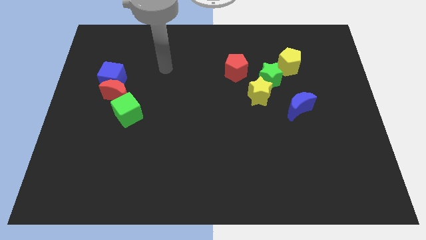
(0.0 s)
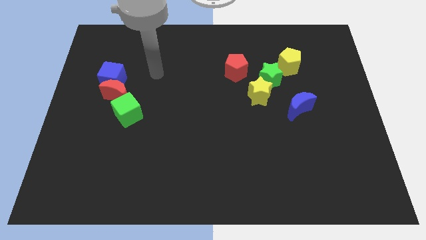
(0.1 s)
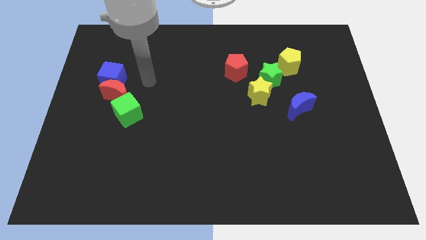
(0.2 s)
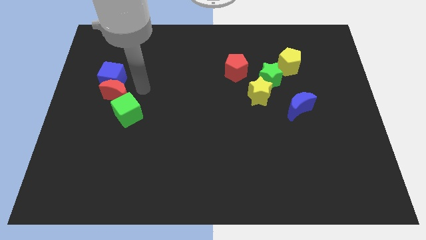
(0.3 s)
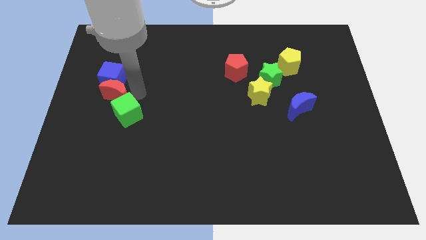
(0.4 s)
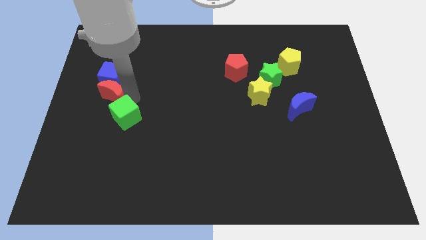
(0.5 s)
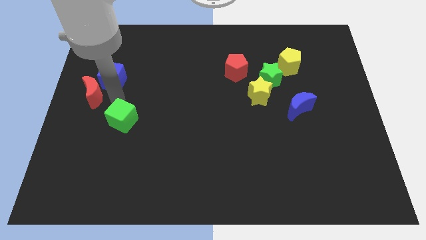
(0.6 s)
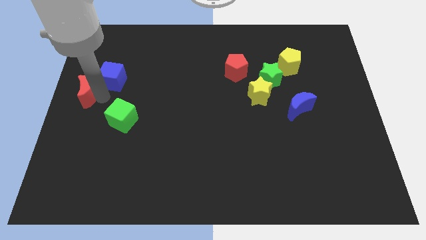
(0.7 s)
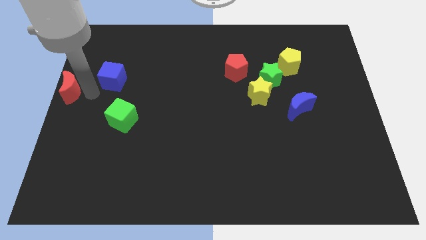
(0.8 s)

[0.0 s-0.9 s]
separate the blue cube from the red moon

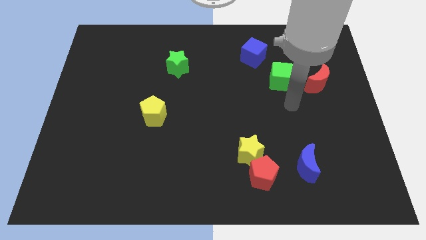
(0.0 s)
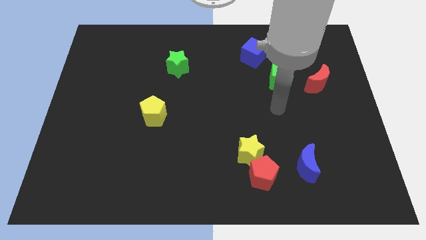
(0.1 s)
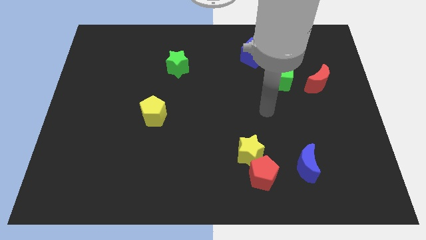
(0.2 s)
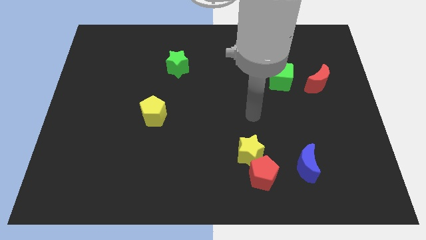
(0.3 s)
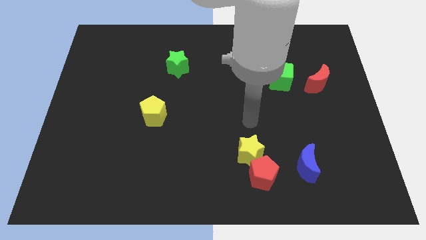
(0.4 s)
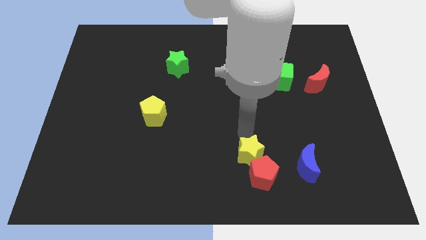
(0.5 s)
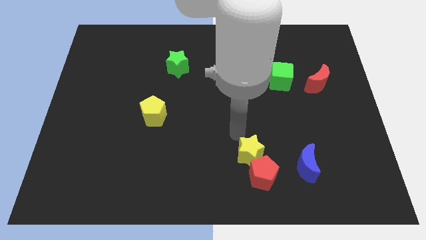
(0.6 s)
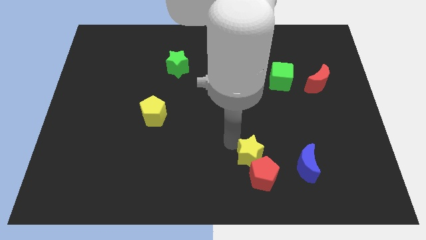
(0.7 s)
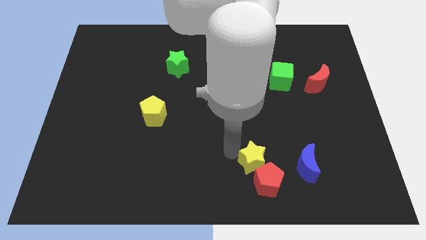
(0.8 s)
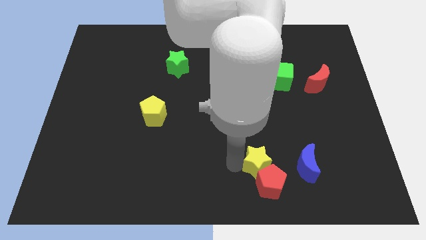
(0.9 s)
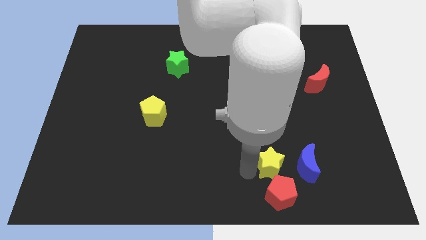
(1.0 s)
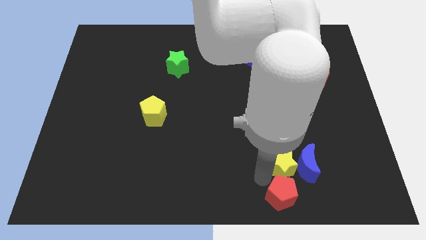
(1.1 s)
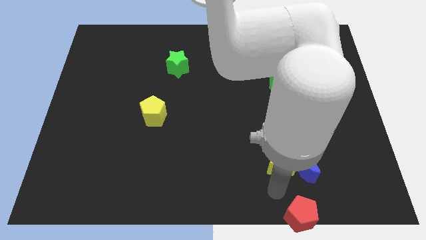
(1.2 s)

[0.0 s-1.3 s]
move the yellow star away from the red pentagon

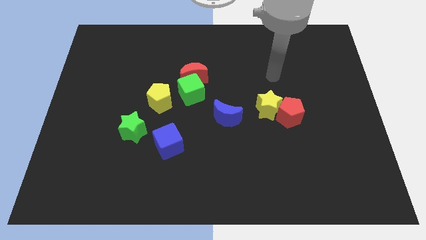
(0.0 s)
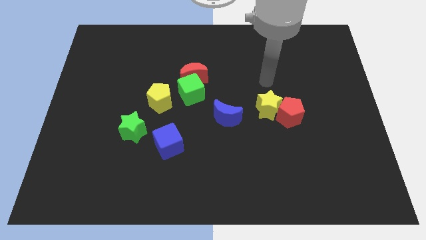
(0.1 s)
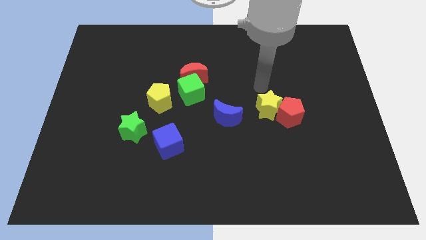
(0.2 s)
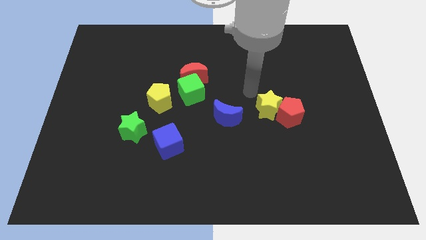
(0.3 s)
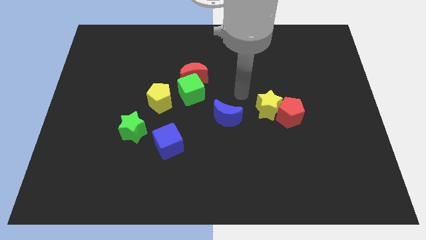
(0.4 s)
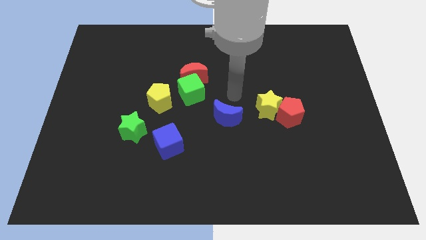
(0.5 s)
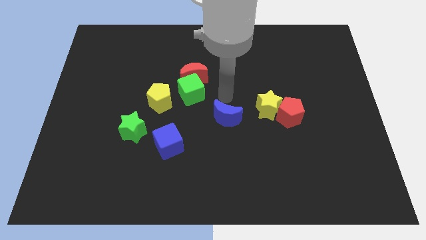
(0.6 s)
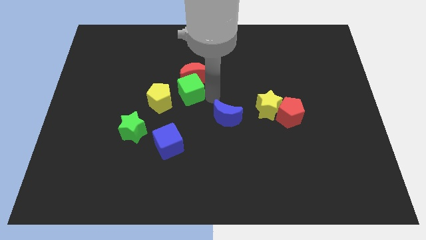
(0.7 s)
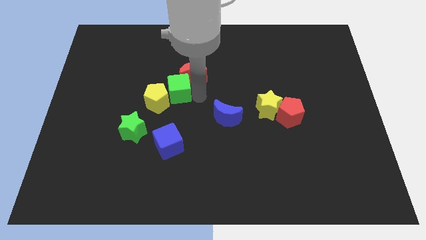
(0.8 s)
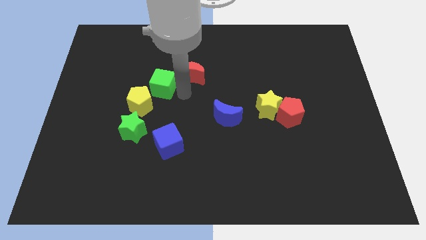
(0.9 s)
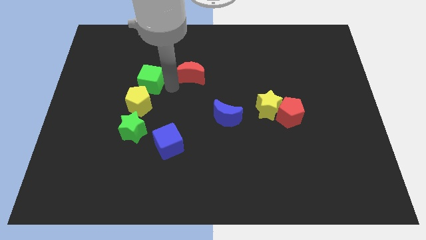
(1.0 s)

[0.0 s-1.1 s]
move the red moon away from the green cube

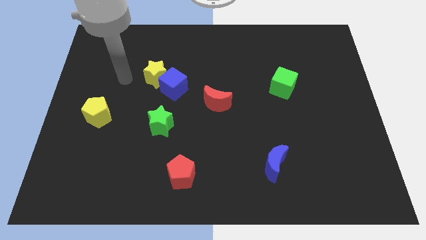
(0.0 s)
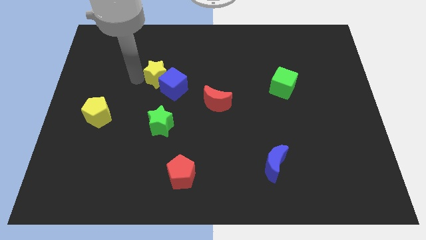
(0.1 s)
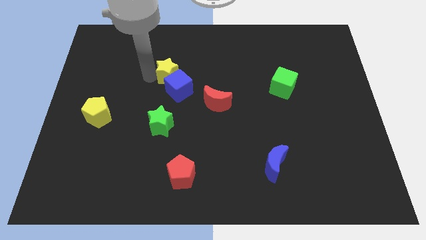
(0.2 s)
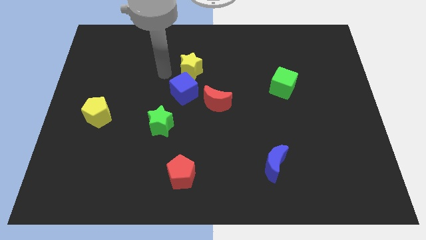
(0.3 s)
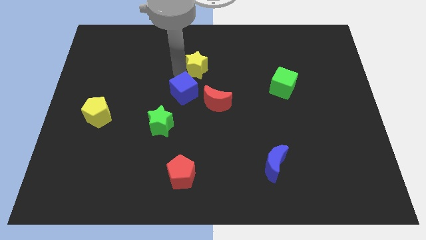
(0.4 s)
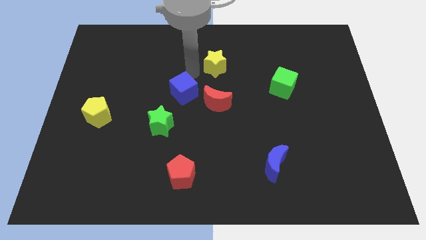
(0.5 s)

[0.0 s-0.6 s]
move the blue cube away from the yellow star

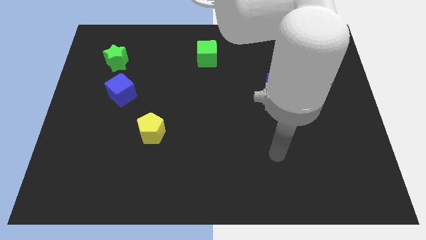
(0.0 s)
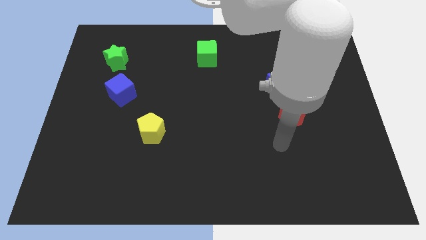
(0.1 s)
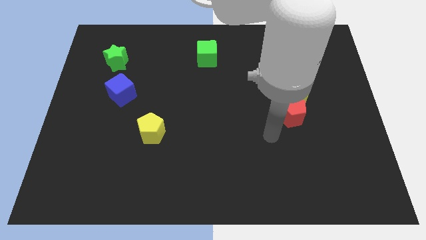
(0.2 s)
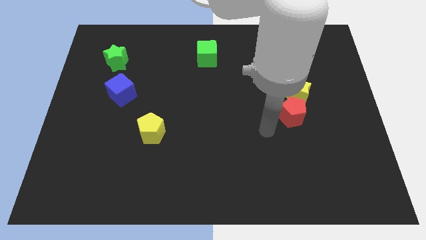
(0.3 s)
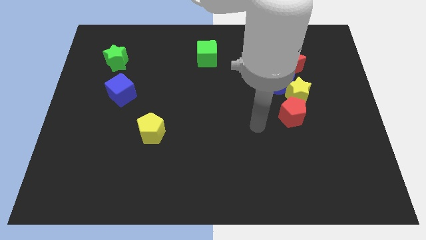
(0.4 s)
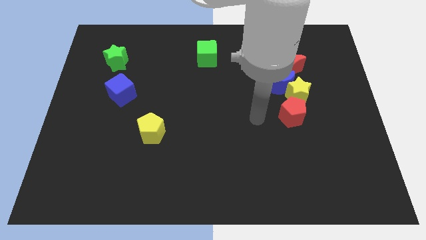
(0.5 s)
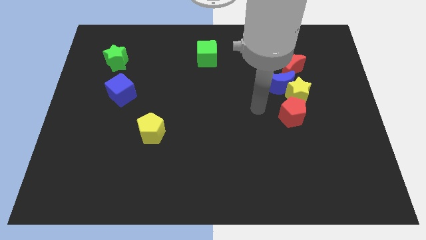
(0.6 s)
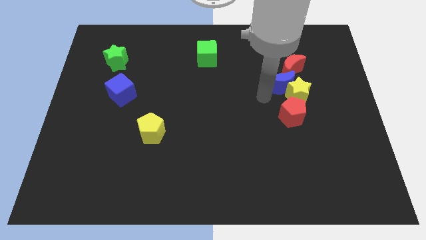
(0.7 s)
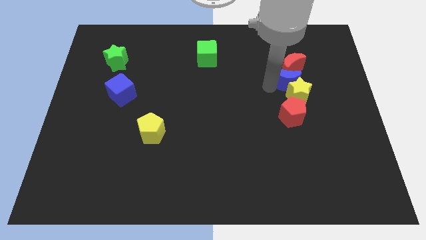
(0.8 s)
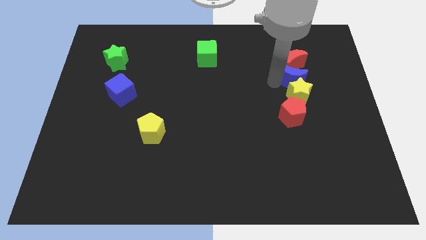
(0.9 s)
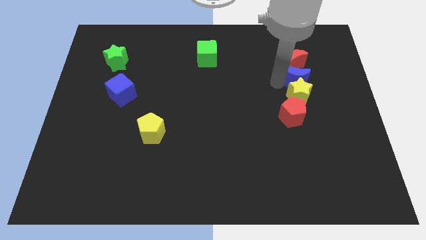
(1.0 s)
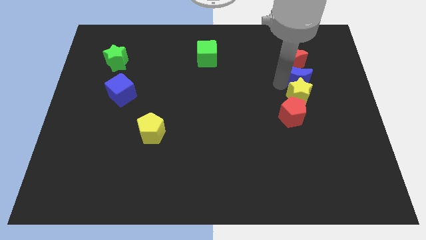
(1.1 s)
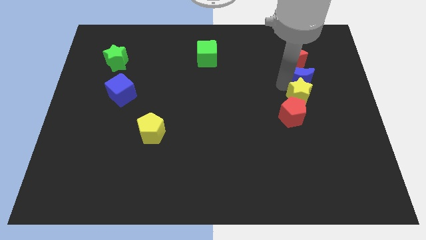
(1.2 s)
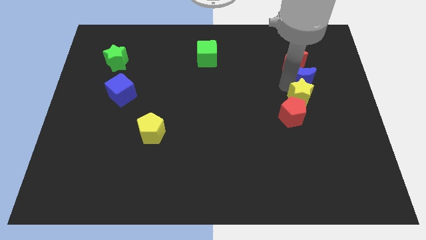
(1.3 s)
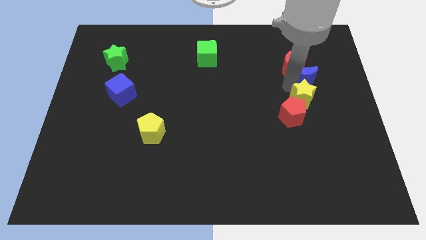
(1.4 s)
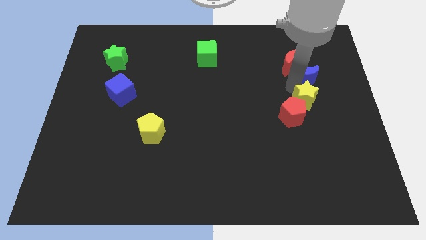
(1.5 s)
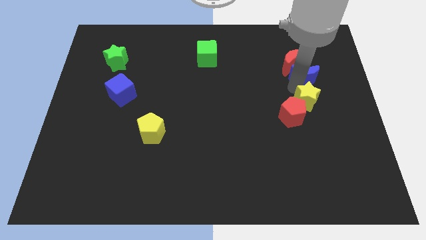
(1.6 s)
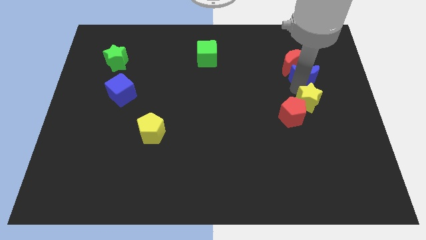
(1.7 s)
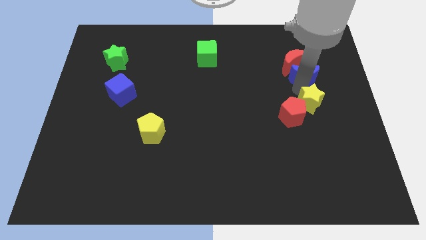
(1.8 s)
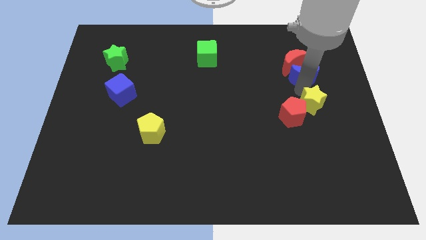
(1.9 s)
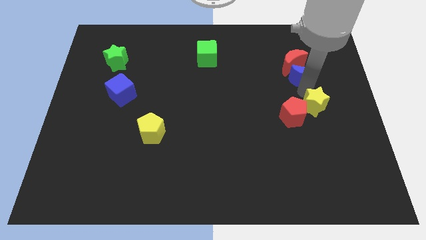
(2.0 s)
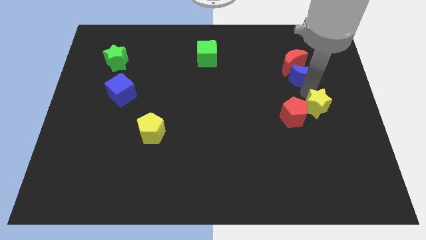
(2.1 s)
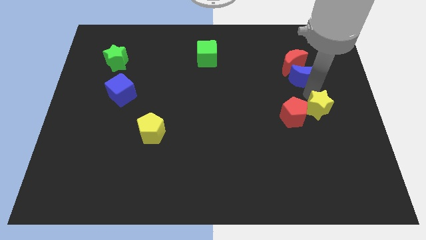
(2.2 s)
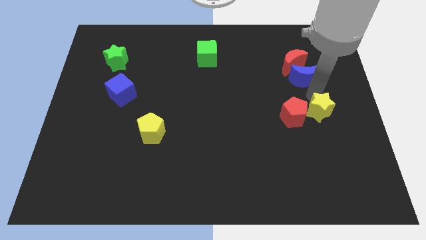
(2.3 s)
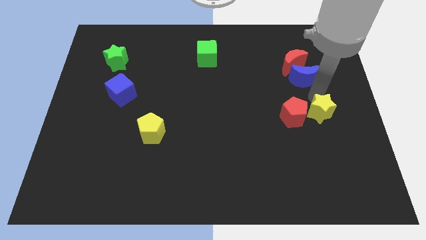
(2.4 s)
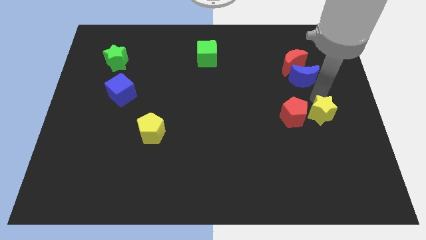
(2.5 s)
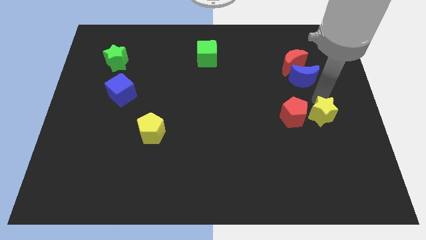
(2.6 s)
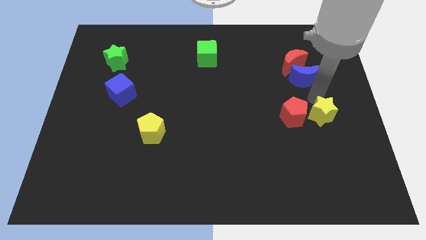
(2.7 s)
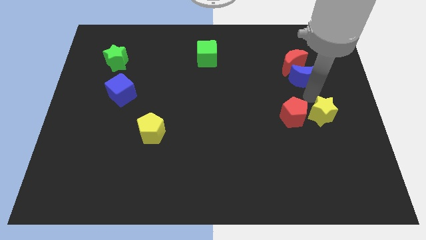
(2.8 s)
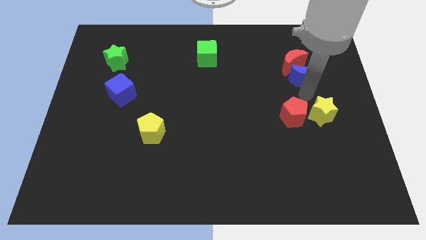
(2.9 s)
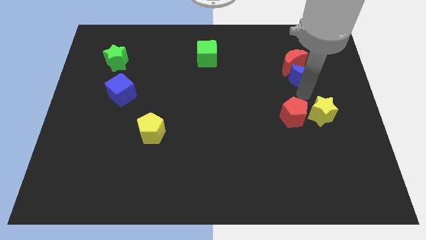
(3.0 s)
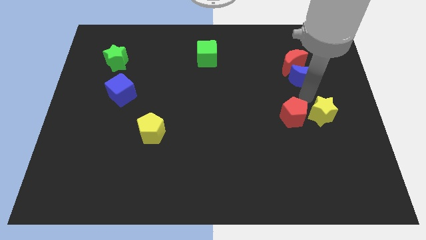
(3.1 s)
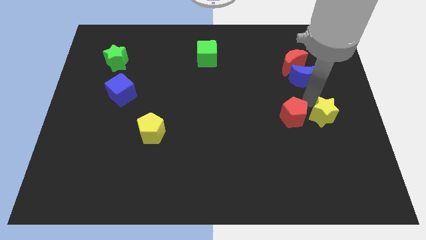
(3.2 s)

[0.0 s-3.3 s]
move the yellow star away from the clump

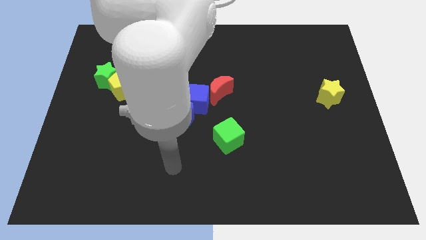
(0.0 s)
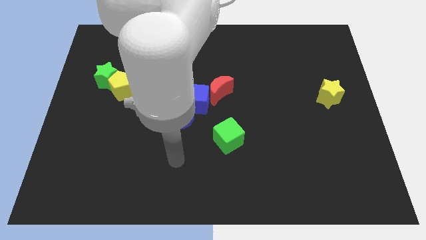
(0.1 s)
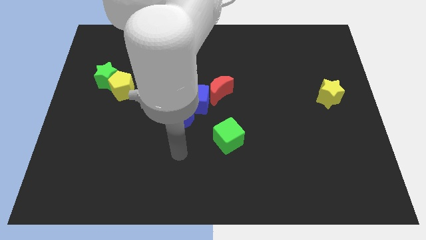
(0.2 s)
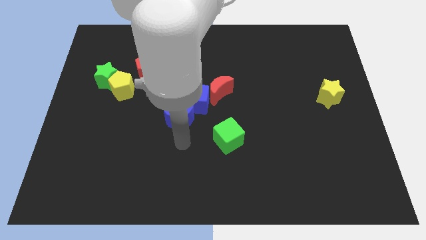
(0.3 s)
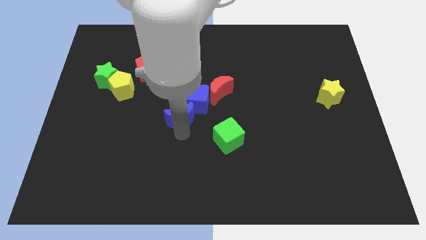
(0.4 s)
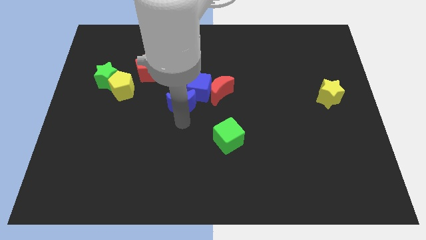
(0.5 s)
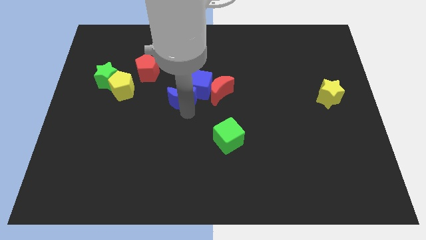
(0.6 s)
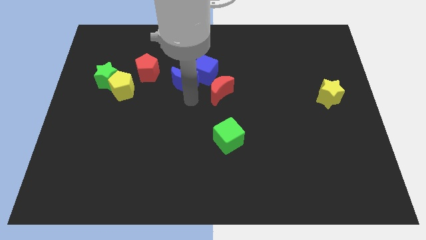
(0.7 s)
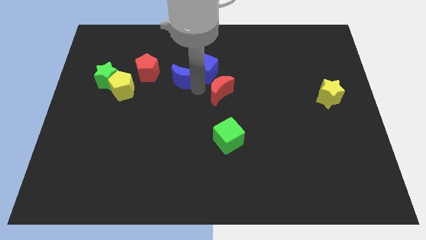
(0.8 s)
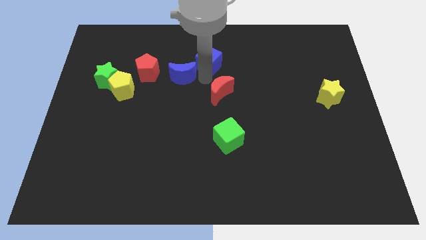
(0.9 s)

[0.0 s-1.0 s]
pull the red moon apart from the blue cube

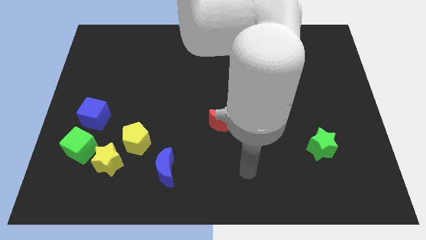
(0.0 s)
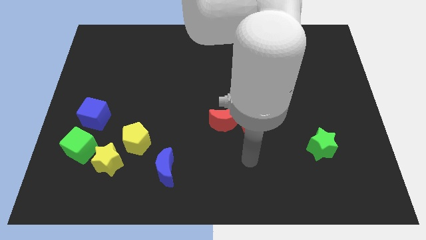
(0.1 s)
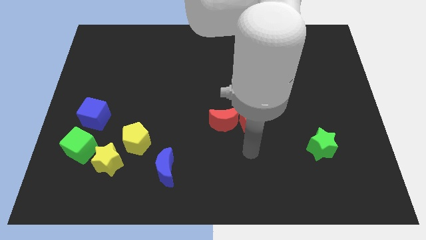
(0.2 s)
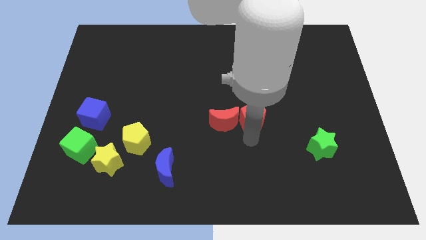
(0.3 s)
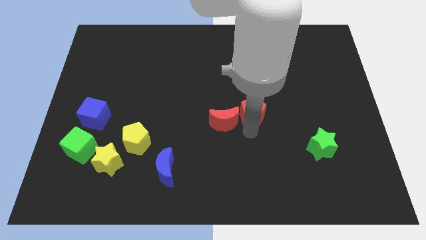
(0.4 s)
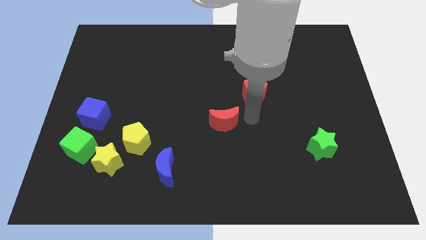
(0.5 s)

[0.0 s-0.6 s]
separate the red moon from the red pentagon

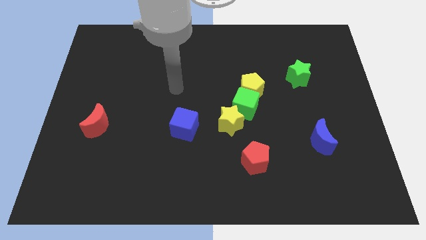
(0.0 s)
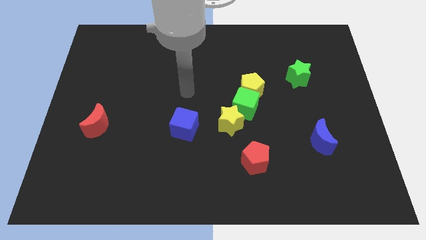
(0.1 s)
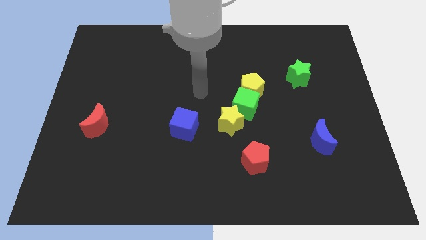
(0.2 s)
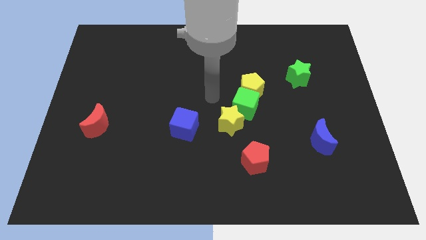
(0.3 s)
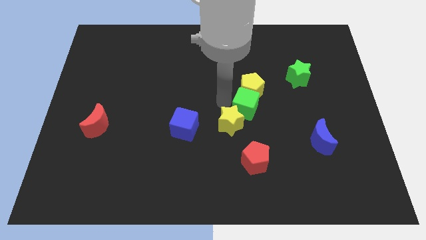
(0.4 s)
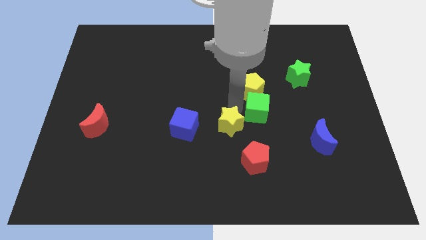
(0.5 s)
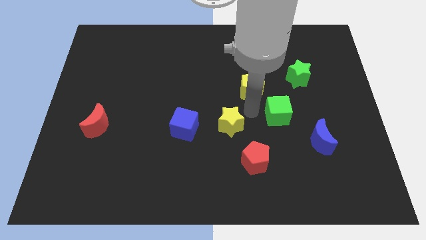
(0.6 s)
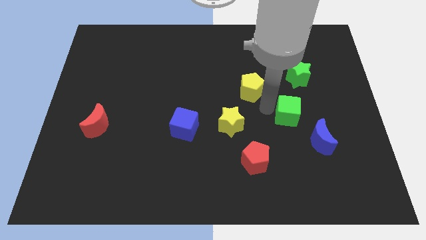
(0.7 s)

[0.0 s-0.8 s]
separate the yellow pentagon from the green cube
